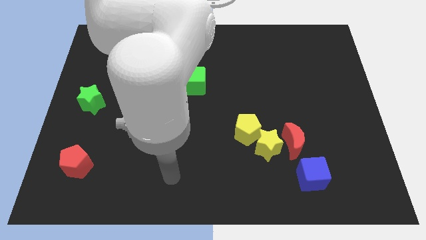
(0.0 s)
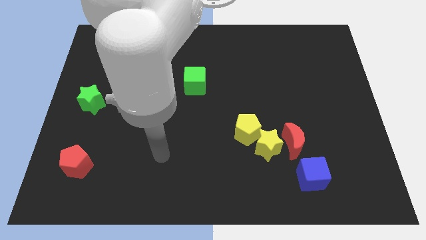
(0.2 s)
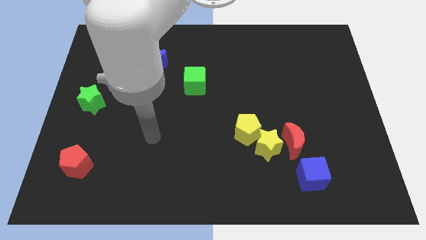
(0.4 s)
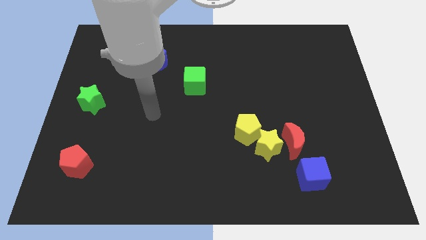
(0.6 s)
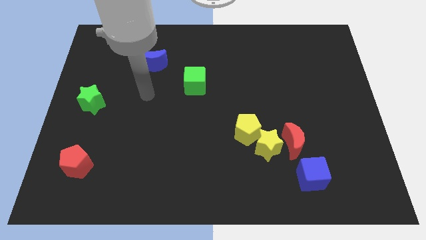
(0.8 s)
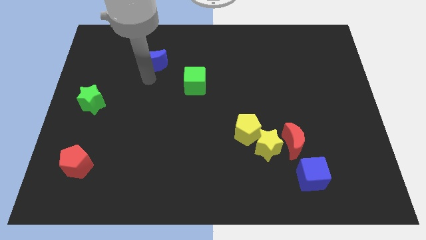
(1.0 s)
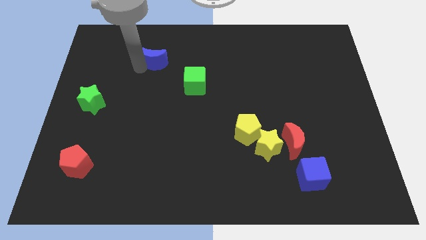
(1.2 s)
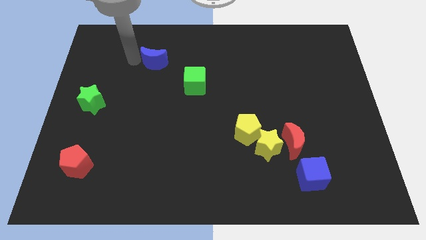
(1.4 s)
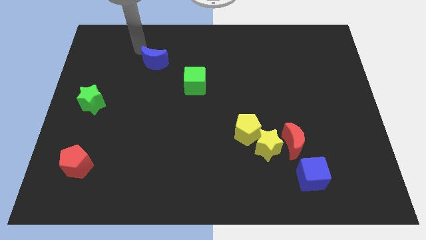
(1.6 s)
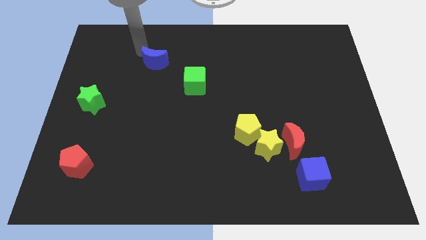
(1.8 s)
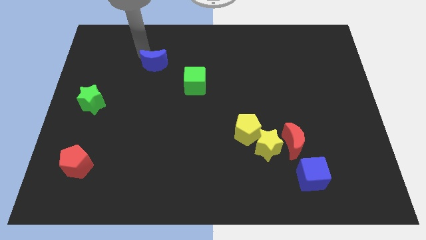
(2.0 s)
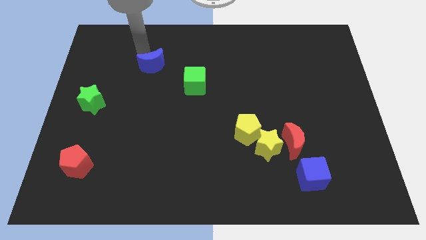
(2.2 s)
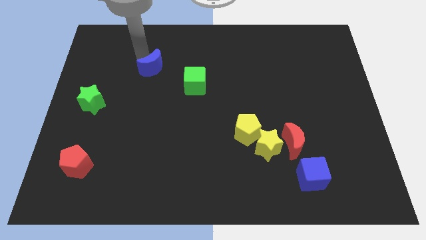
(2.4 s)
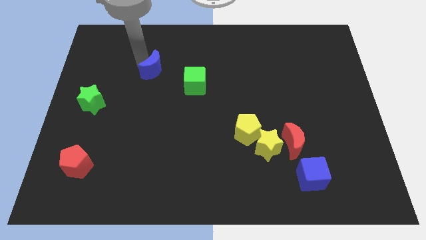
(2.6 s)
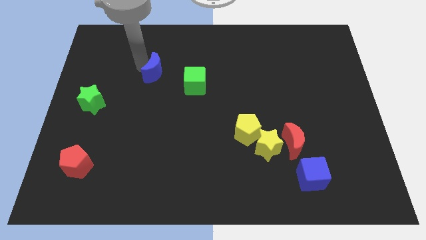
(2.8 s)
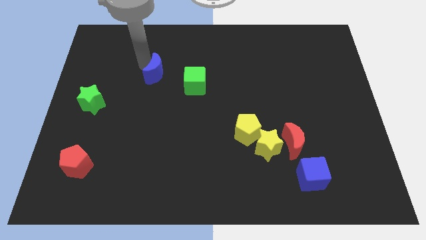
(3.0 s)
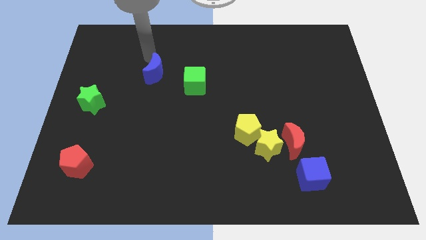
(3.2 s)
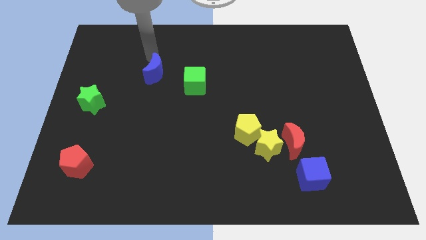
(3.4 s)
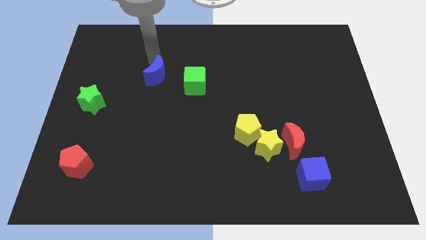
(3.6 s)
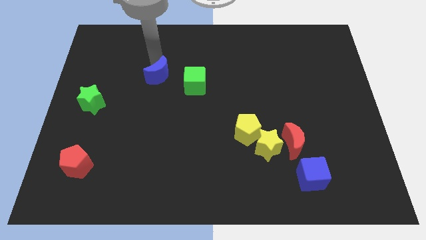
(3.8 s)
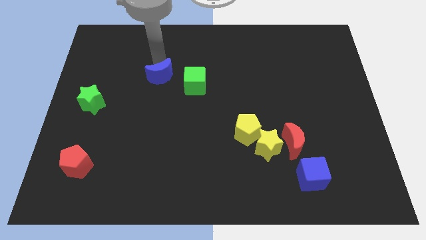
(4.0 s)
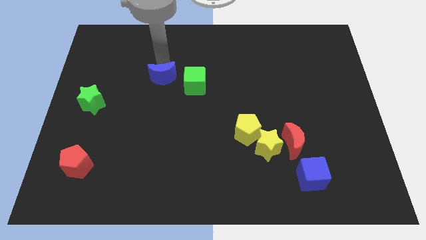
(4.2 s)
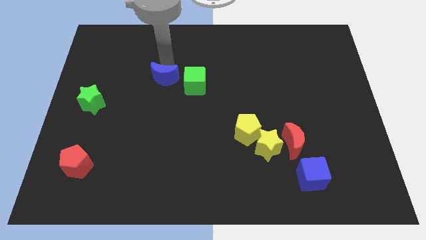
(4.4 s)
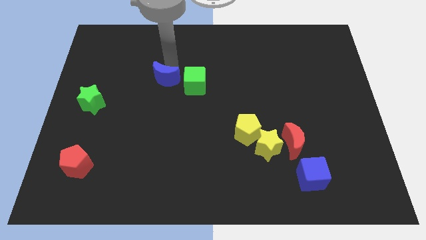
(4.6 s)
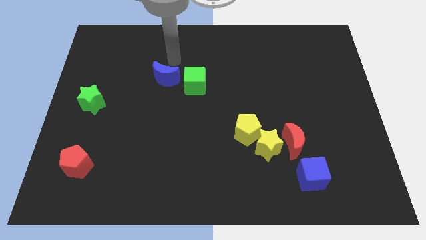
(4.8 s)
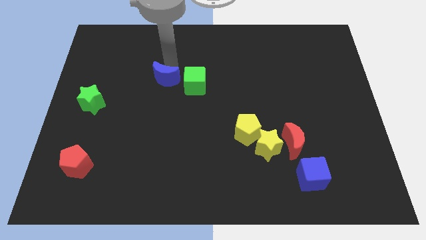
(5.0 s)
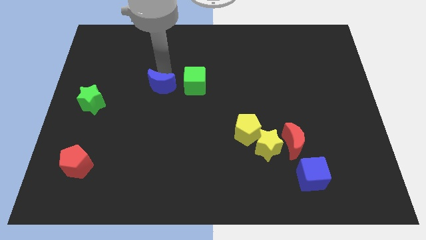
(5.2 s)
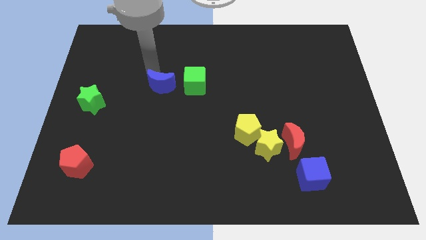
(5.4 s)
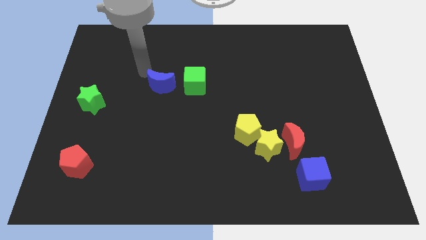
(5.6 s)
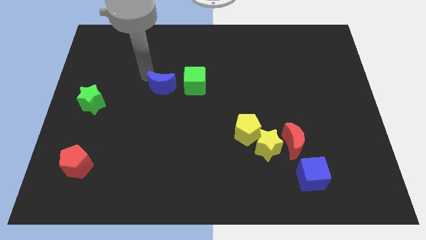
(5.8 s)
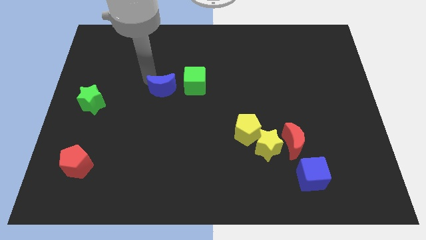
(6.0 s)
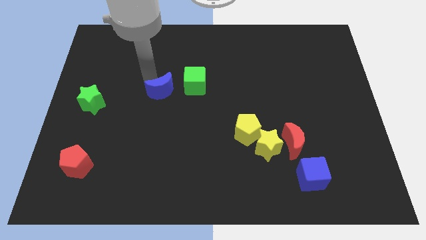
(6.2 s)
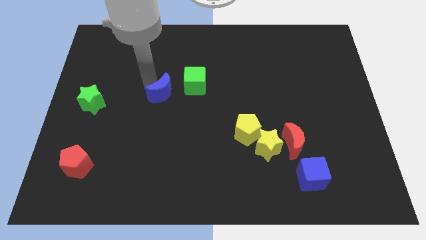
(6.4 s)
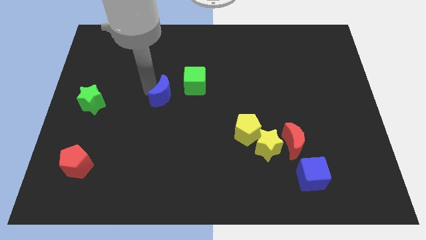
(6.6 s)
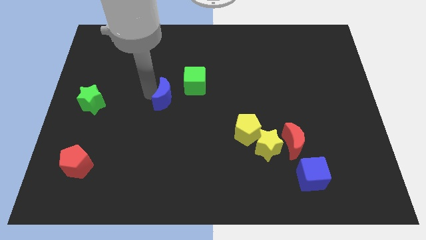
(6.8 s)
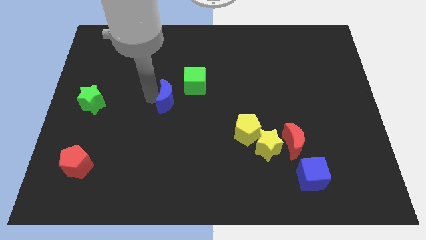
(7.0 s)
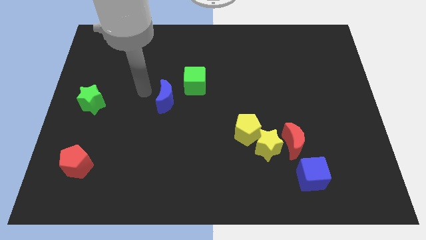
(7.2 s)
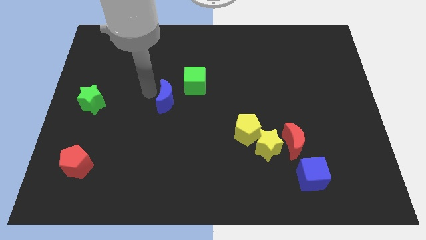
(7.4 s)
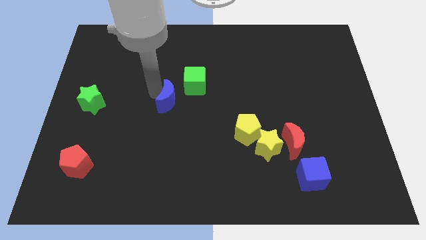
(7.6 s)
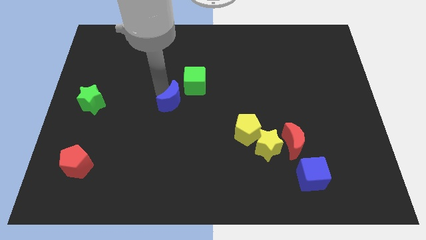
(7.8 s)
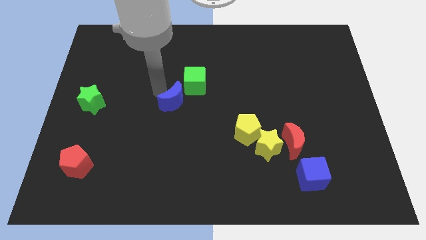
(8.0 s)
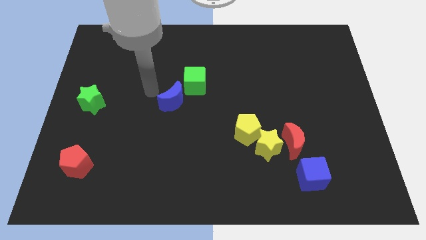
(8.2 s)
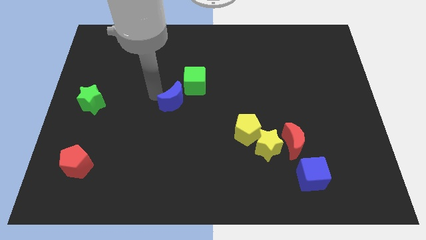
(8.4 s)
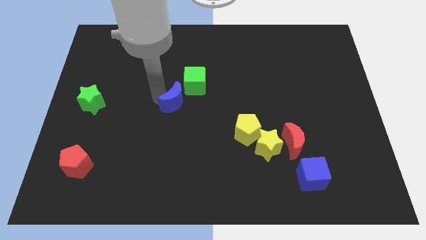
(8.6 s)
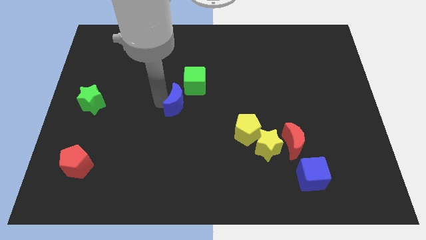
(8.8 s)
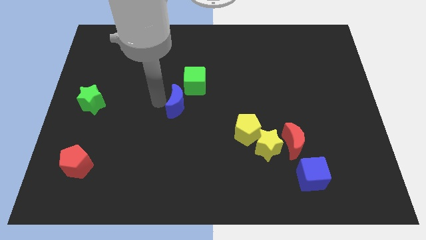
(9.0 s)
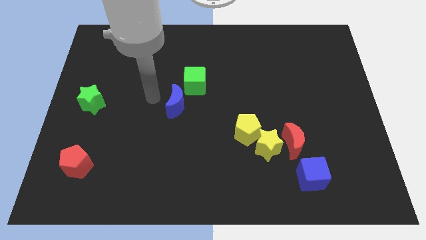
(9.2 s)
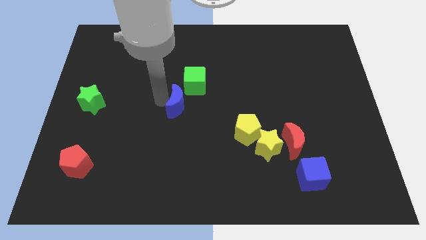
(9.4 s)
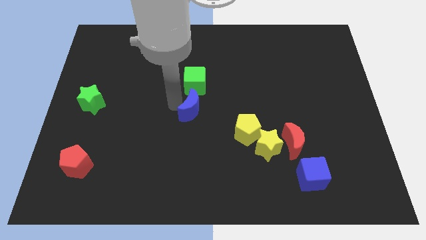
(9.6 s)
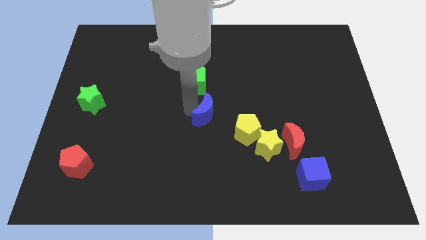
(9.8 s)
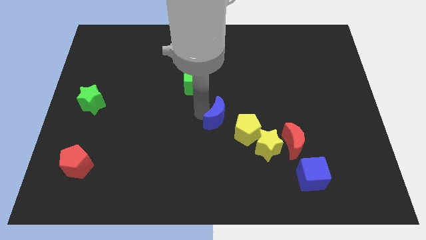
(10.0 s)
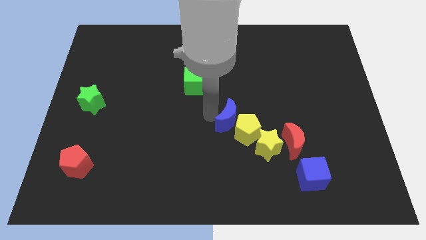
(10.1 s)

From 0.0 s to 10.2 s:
put the blue moon towards the yellow pentagon

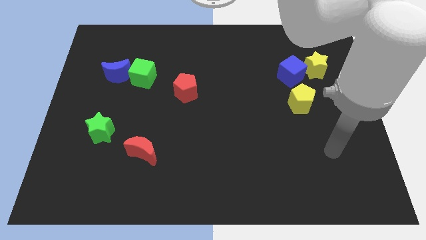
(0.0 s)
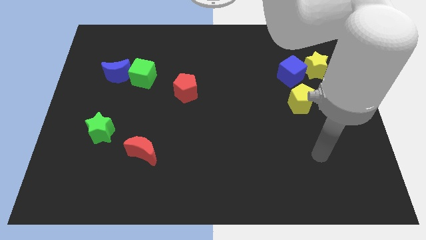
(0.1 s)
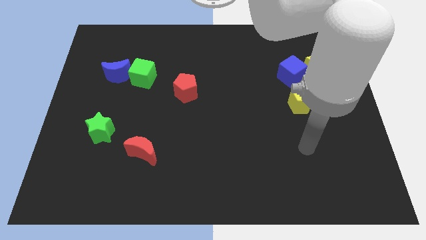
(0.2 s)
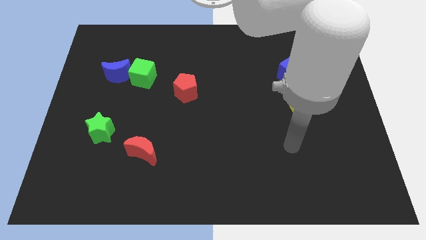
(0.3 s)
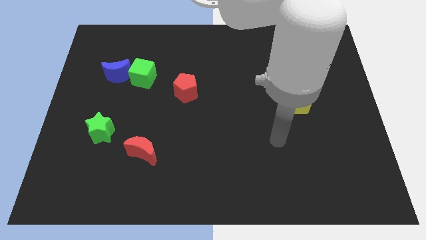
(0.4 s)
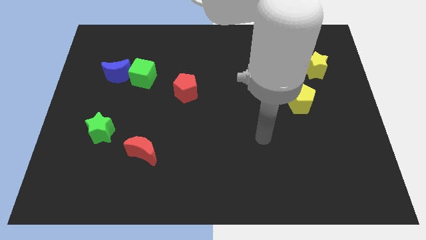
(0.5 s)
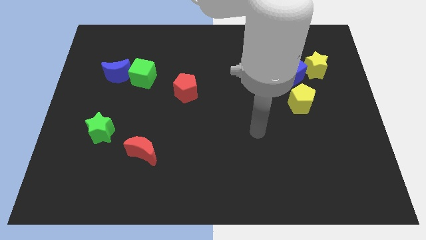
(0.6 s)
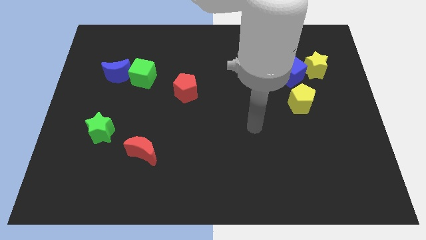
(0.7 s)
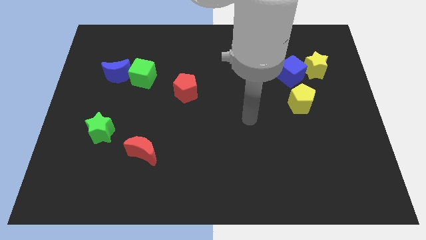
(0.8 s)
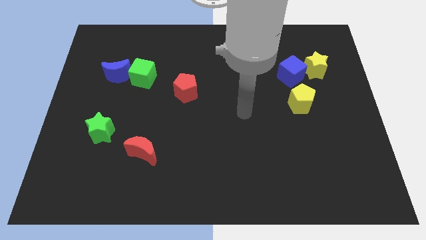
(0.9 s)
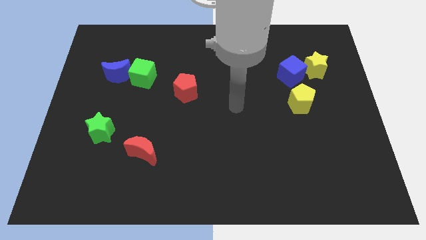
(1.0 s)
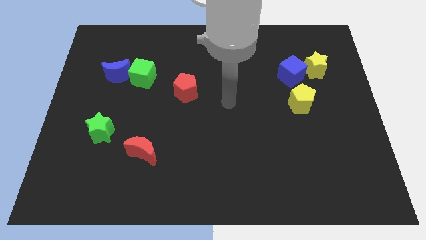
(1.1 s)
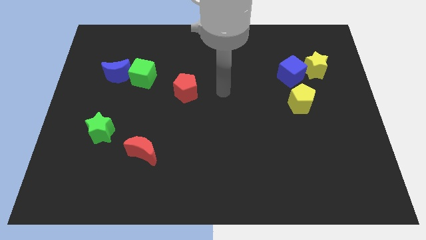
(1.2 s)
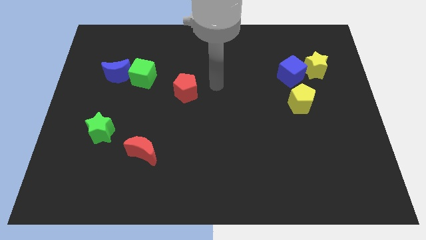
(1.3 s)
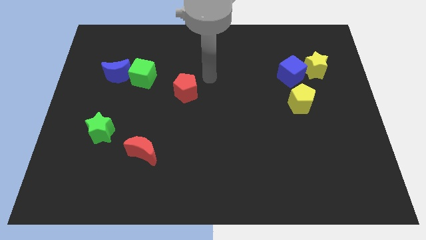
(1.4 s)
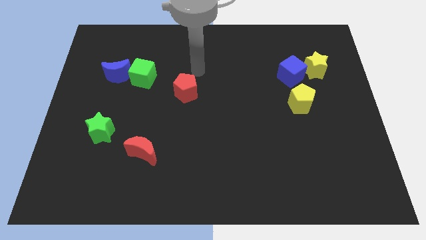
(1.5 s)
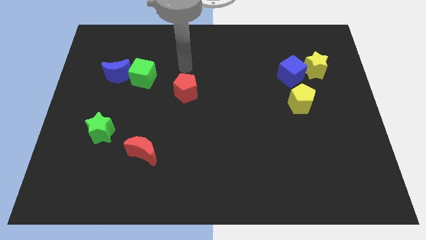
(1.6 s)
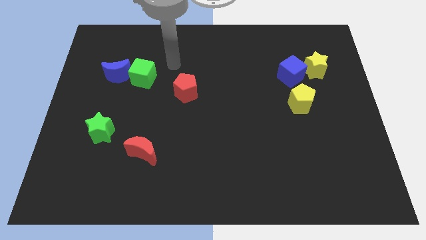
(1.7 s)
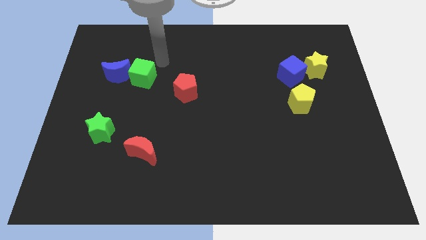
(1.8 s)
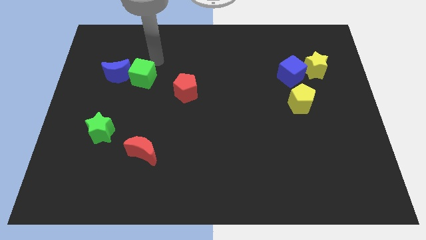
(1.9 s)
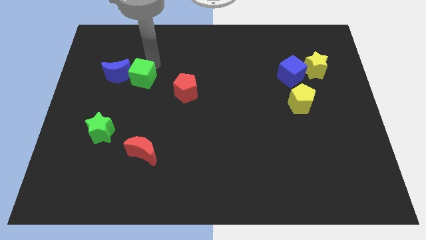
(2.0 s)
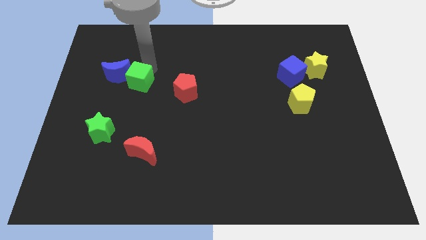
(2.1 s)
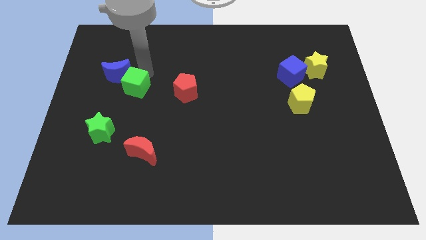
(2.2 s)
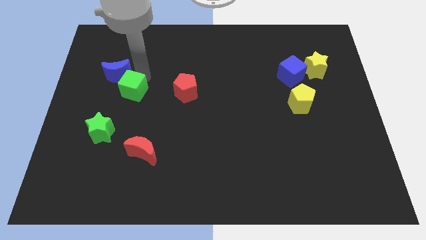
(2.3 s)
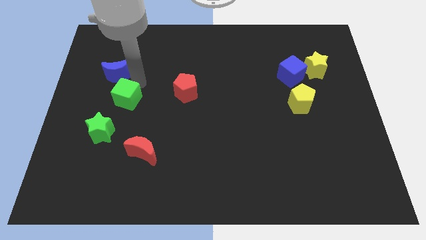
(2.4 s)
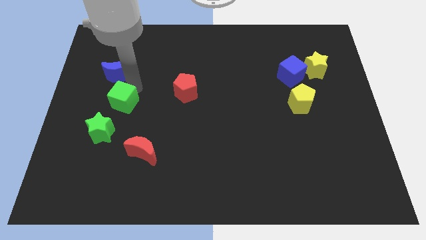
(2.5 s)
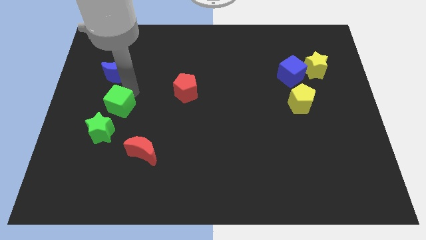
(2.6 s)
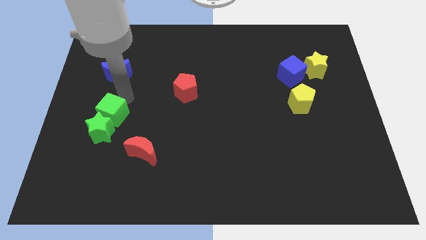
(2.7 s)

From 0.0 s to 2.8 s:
slide the green cube to the green star
